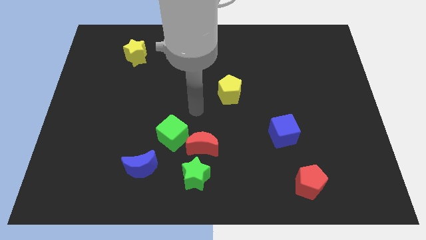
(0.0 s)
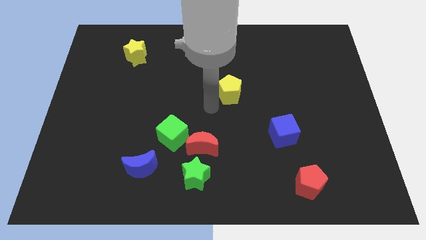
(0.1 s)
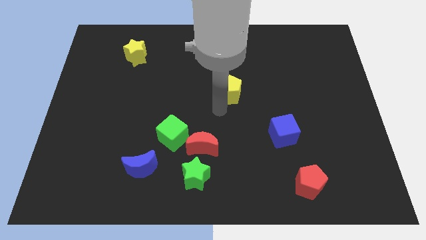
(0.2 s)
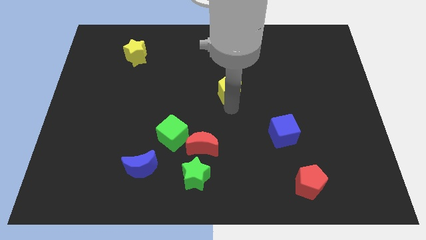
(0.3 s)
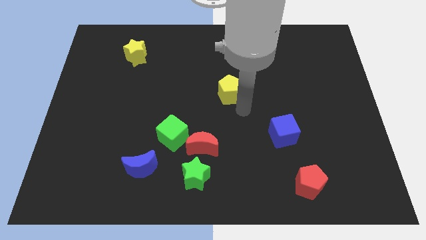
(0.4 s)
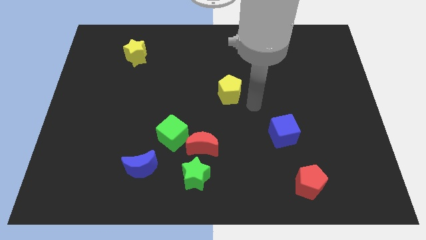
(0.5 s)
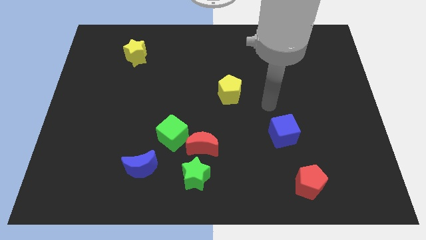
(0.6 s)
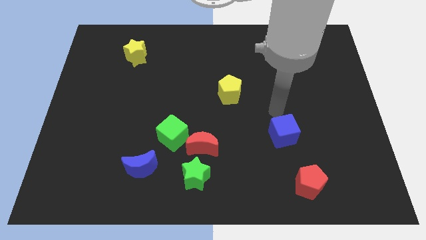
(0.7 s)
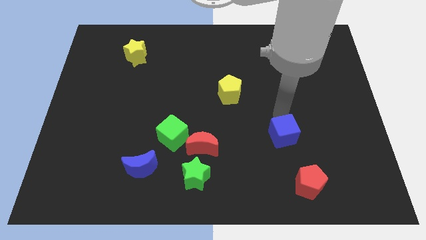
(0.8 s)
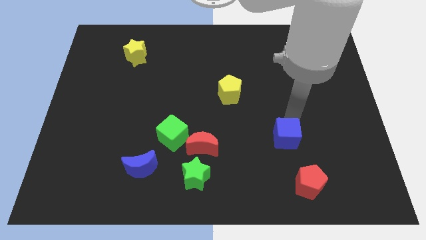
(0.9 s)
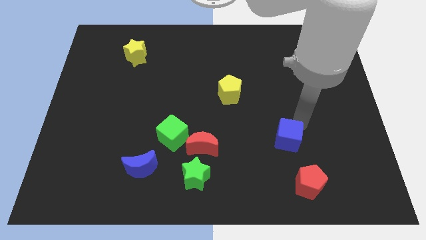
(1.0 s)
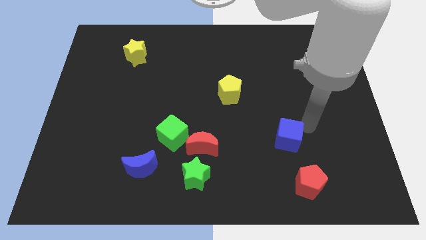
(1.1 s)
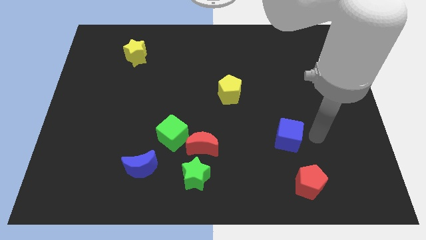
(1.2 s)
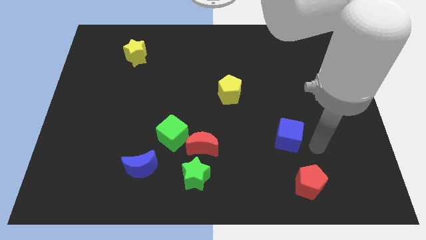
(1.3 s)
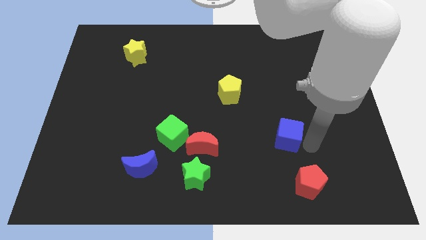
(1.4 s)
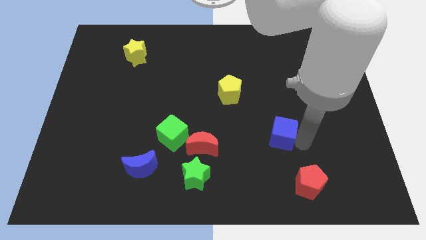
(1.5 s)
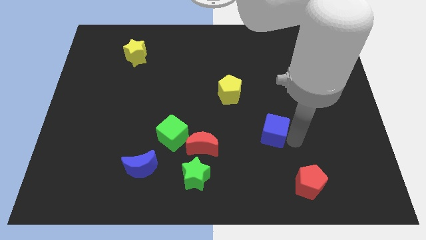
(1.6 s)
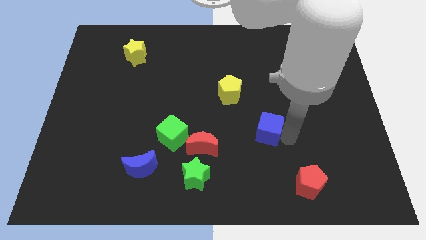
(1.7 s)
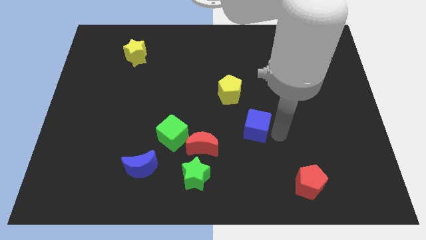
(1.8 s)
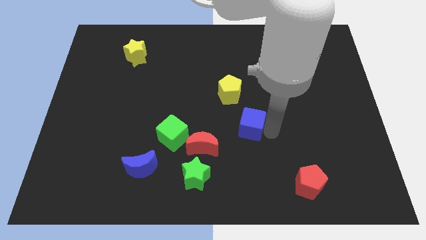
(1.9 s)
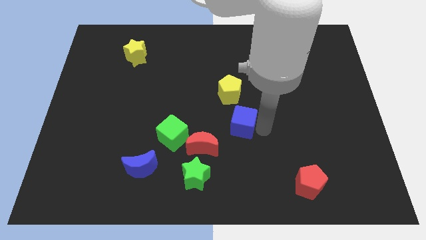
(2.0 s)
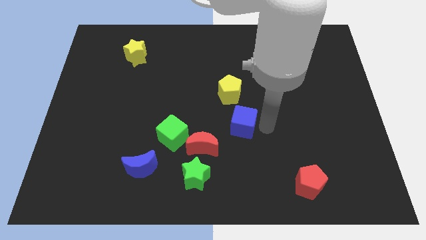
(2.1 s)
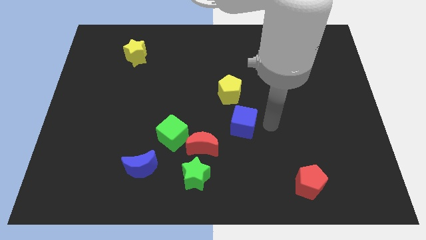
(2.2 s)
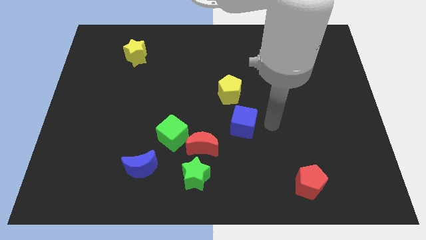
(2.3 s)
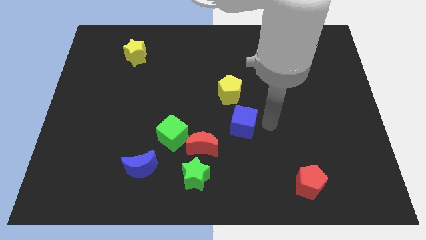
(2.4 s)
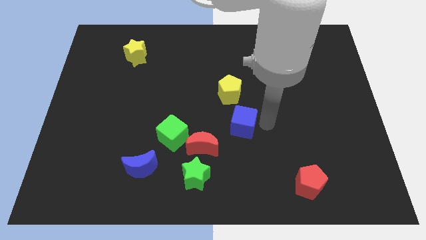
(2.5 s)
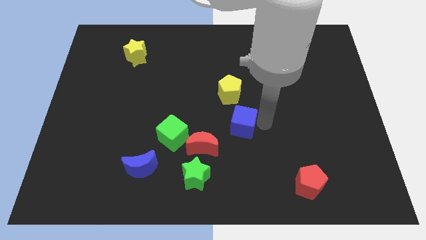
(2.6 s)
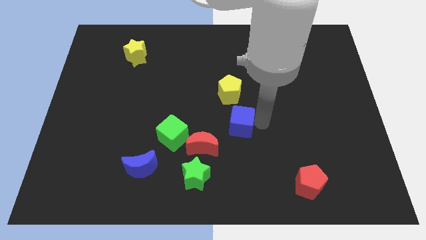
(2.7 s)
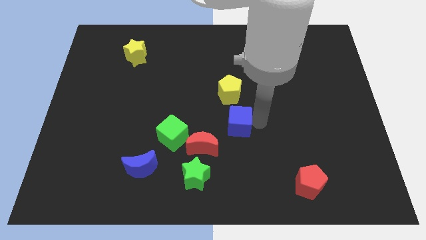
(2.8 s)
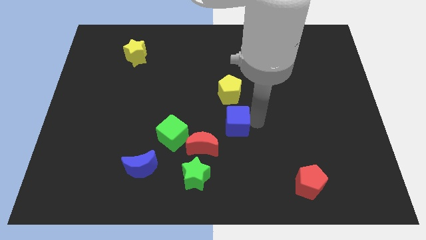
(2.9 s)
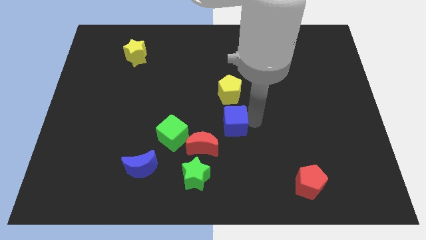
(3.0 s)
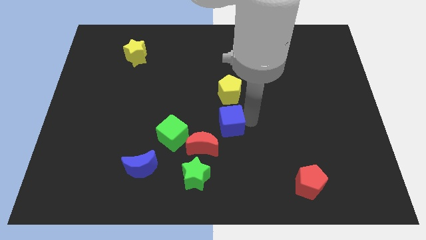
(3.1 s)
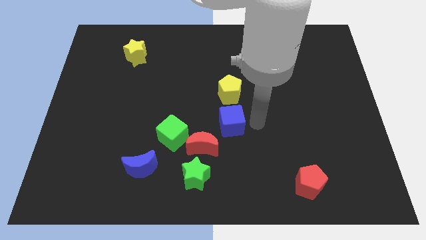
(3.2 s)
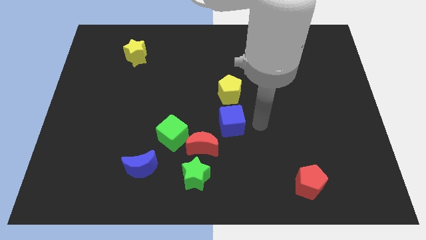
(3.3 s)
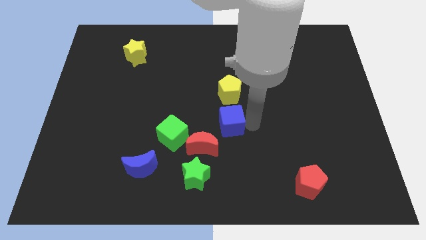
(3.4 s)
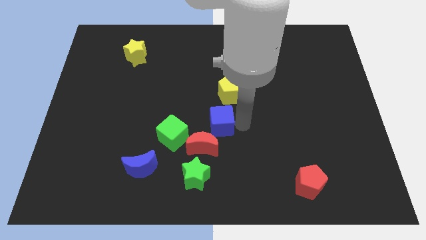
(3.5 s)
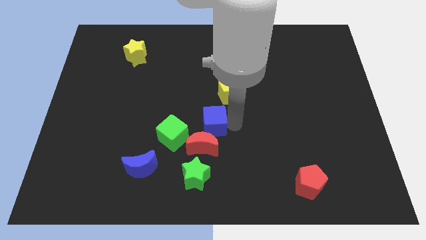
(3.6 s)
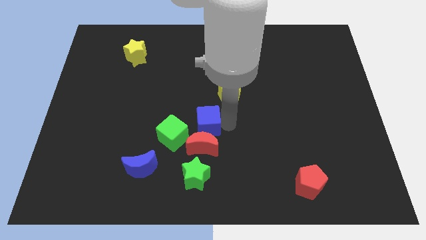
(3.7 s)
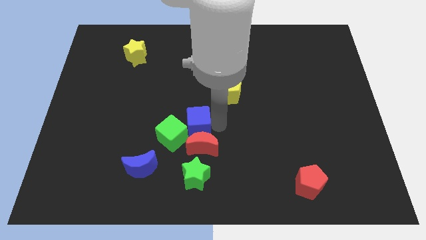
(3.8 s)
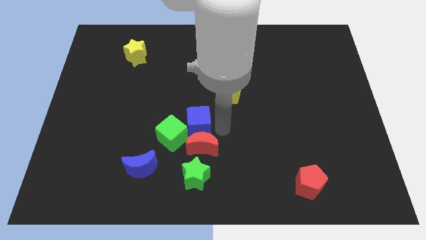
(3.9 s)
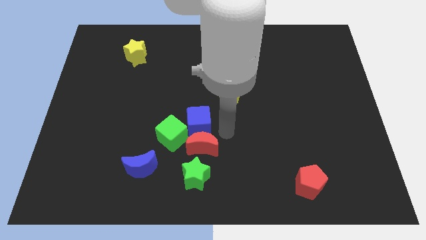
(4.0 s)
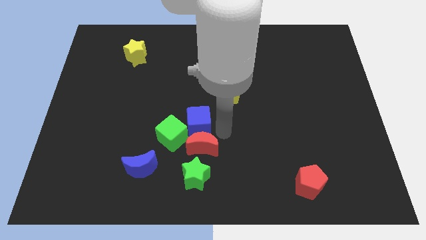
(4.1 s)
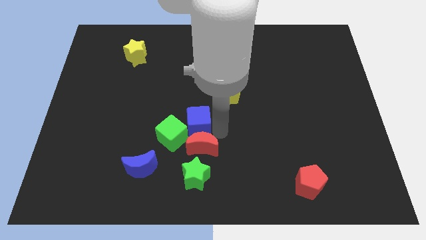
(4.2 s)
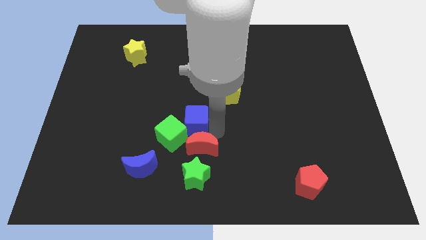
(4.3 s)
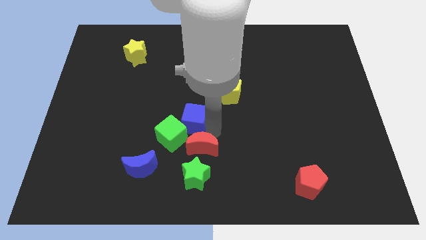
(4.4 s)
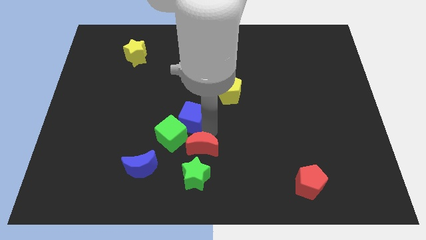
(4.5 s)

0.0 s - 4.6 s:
push the blue cube left

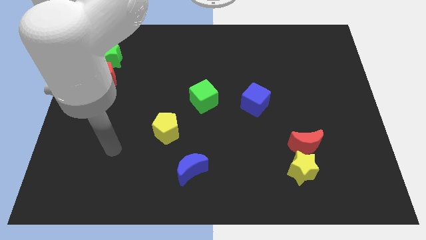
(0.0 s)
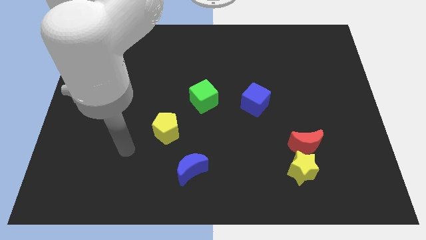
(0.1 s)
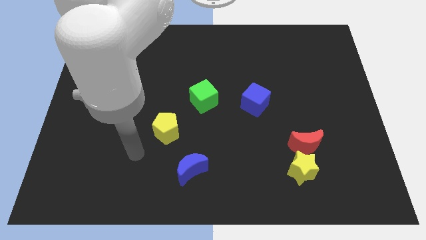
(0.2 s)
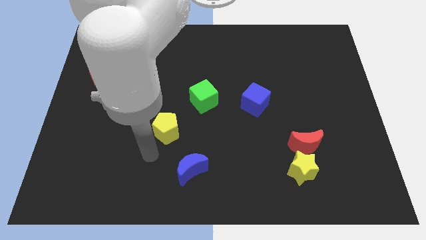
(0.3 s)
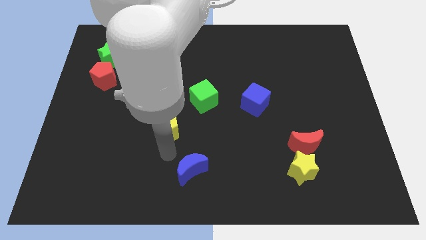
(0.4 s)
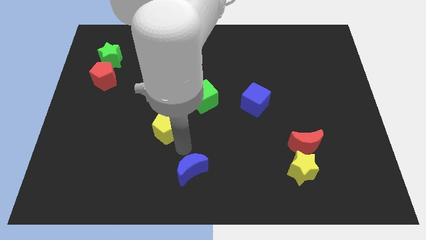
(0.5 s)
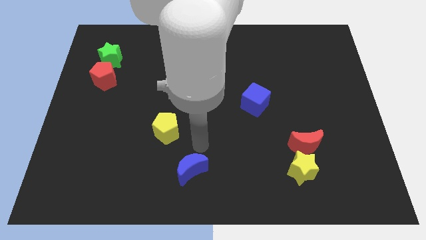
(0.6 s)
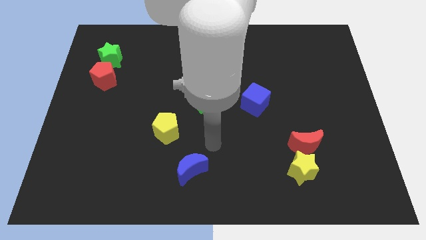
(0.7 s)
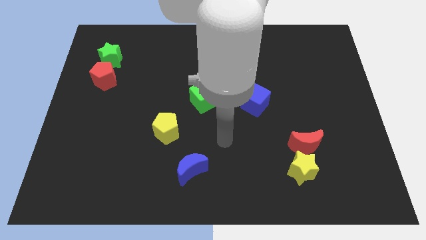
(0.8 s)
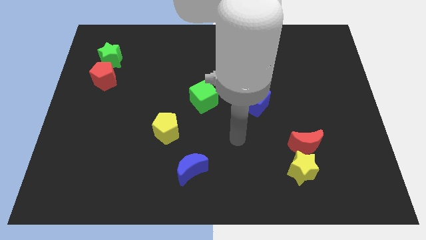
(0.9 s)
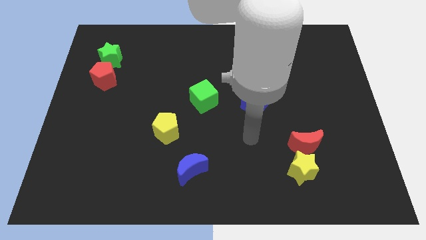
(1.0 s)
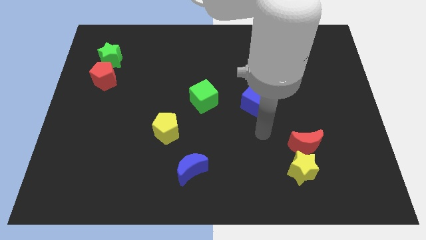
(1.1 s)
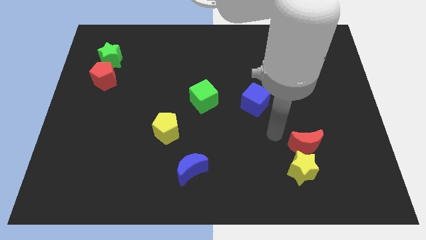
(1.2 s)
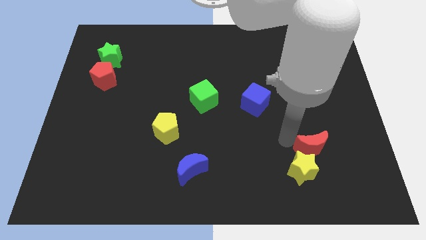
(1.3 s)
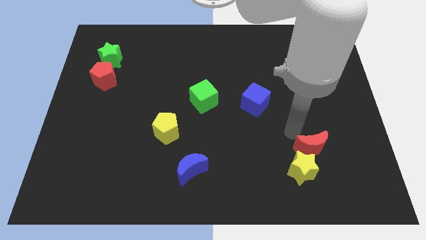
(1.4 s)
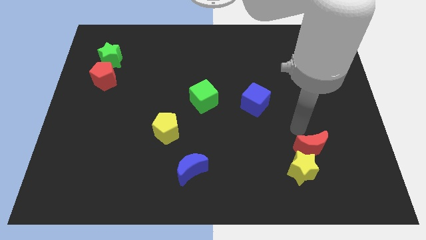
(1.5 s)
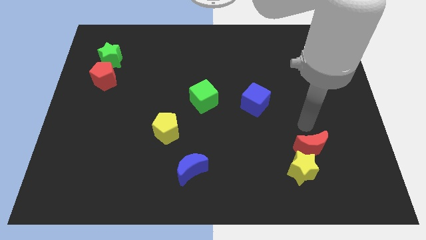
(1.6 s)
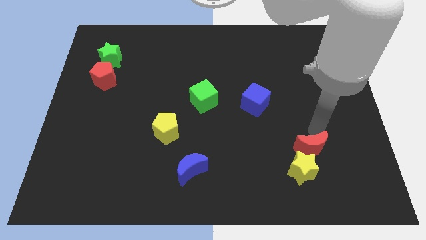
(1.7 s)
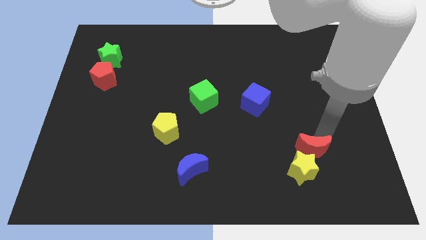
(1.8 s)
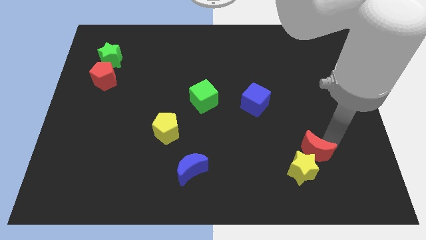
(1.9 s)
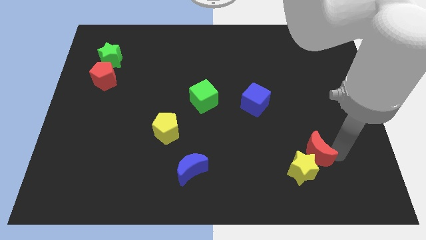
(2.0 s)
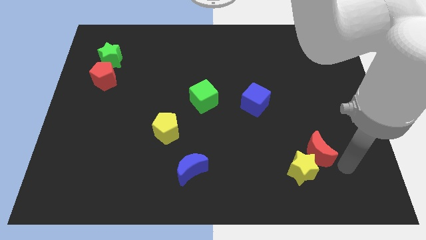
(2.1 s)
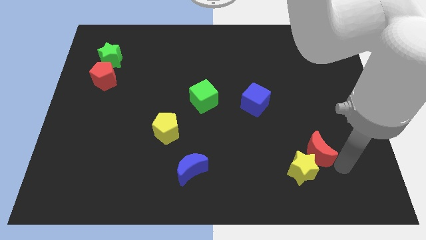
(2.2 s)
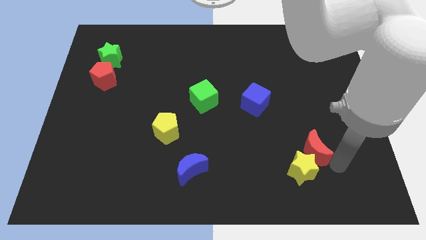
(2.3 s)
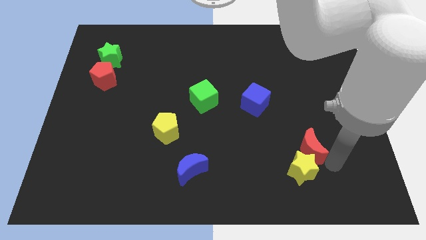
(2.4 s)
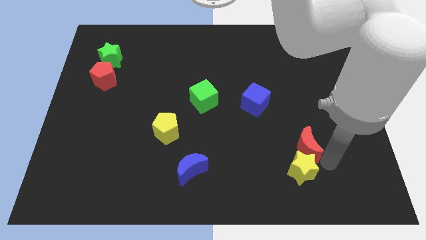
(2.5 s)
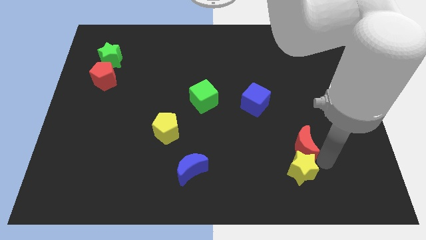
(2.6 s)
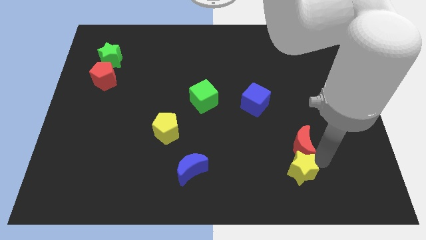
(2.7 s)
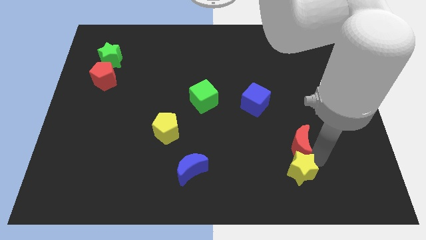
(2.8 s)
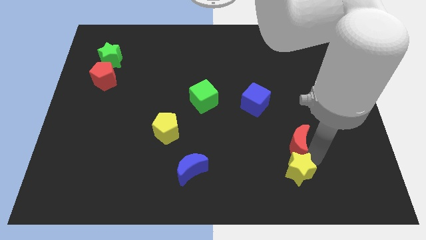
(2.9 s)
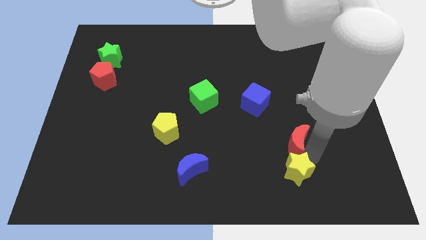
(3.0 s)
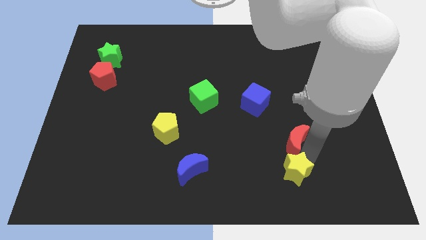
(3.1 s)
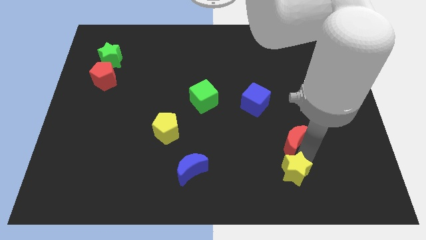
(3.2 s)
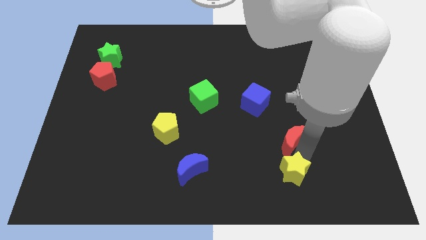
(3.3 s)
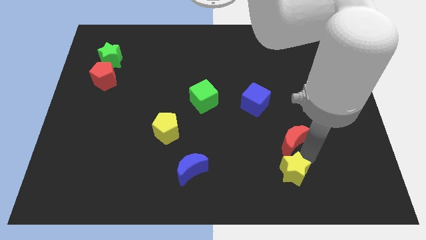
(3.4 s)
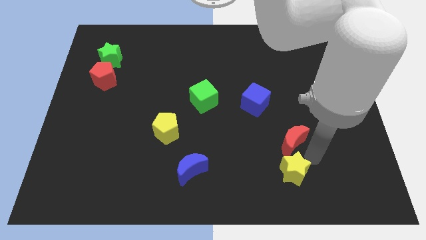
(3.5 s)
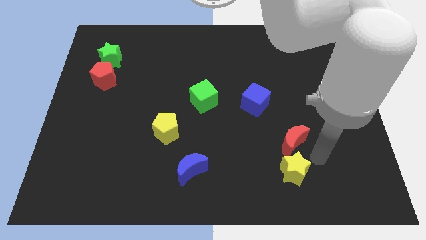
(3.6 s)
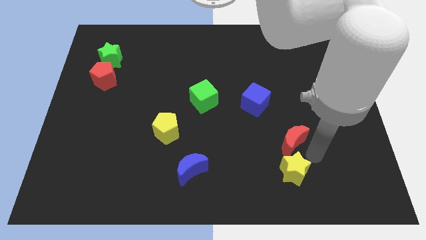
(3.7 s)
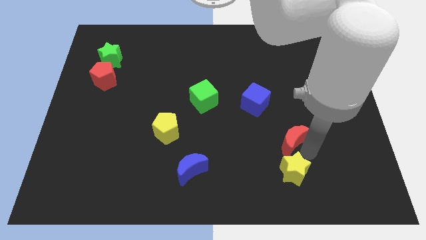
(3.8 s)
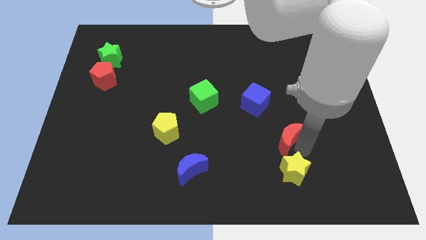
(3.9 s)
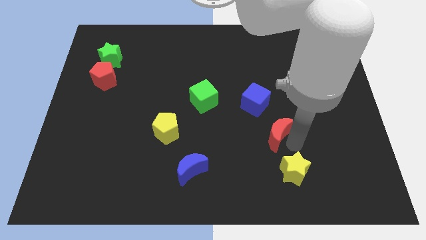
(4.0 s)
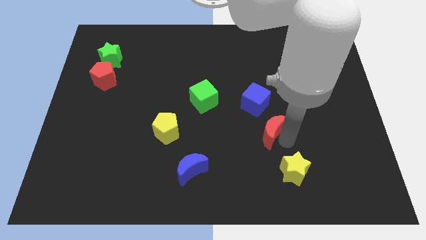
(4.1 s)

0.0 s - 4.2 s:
move the red moon diagonally up and to the left a little
